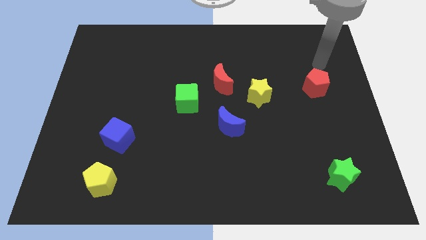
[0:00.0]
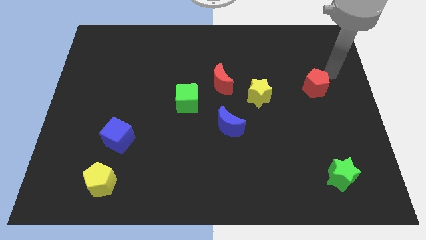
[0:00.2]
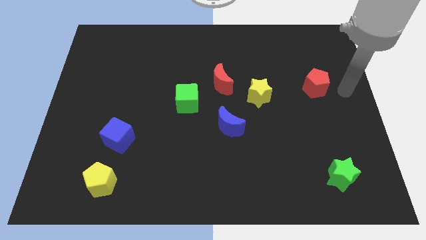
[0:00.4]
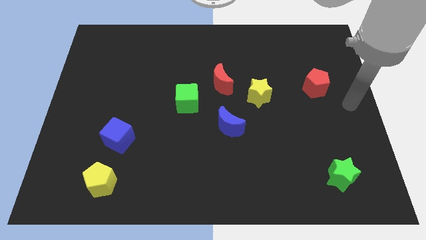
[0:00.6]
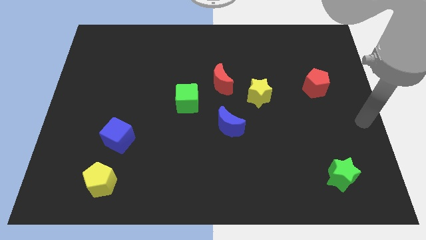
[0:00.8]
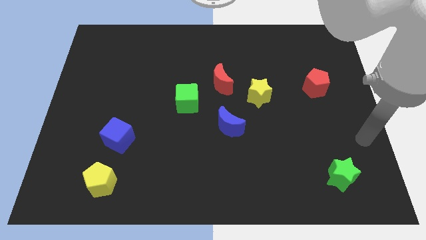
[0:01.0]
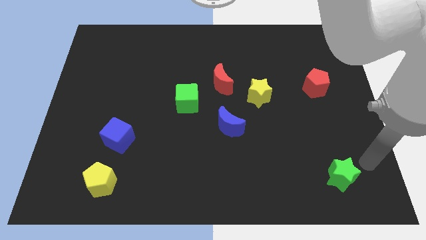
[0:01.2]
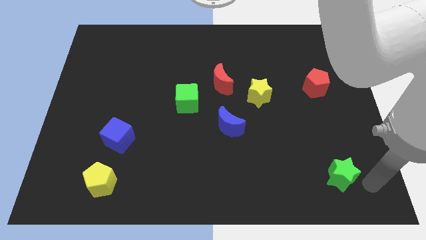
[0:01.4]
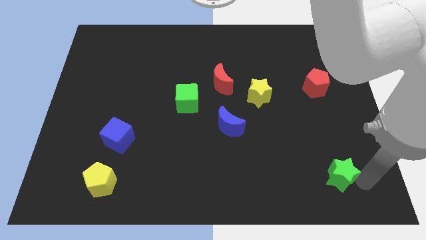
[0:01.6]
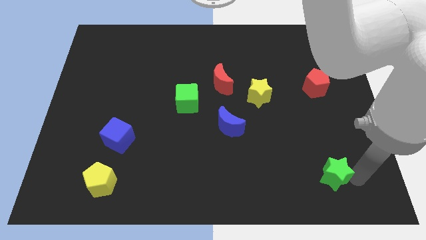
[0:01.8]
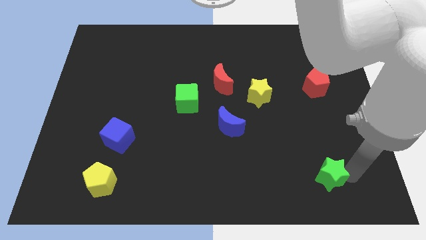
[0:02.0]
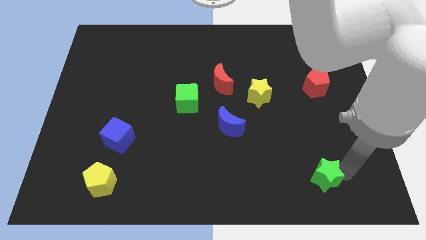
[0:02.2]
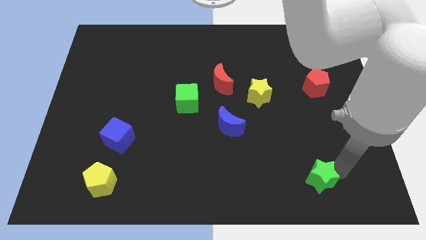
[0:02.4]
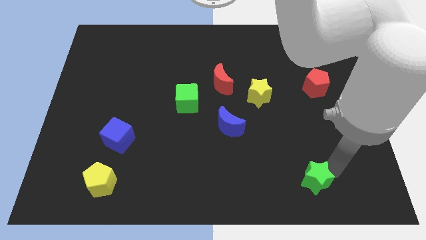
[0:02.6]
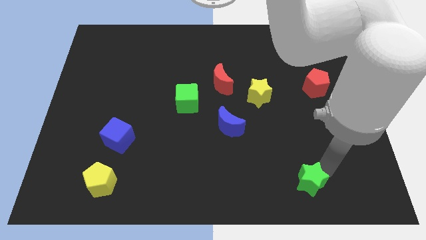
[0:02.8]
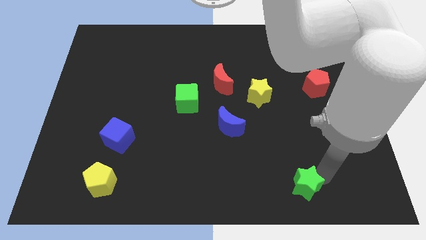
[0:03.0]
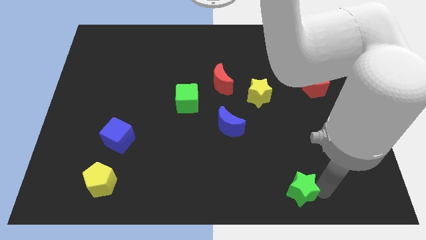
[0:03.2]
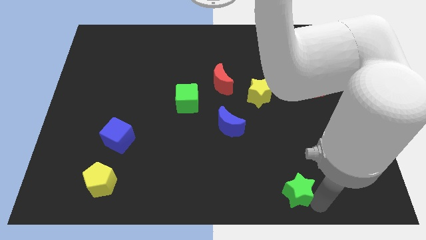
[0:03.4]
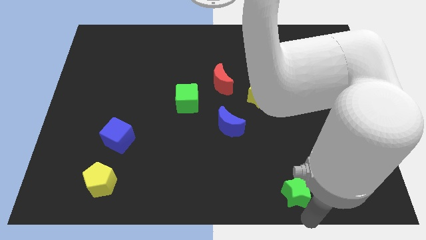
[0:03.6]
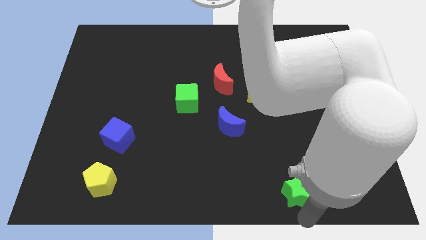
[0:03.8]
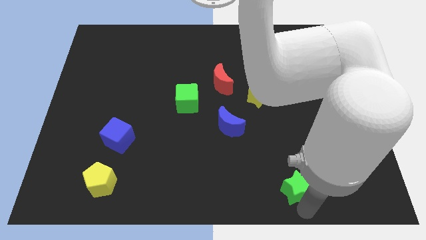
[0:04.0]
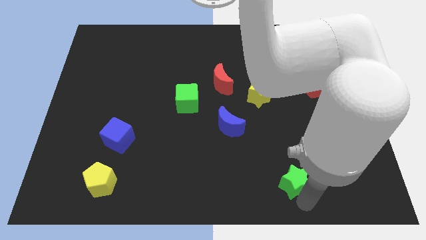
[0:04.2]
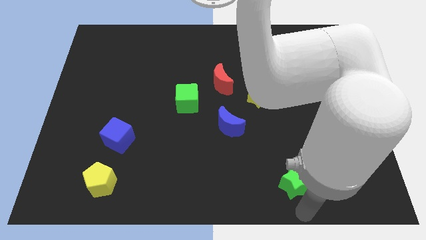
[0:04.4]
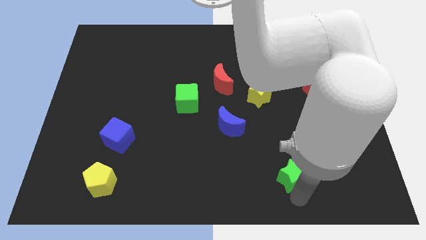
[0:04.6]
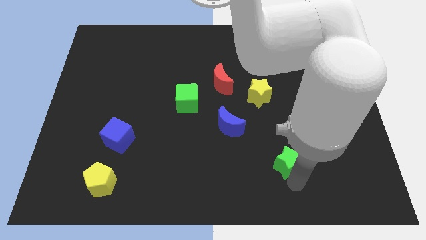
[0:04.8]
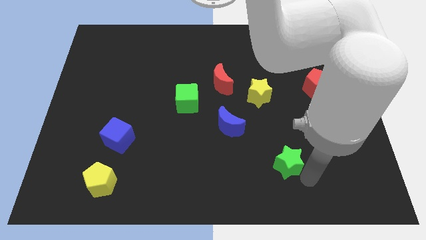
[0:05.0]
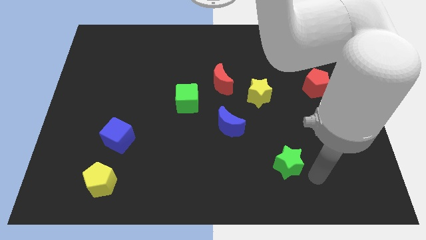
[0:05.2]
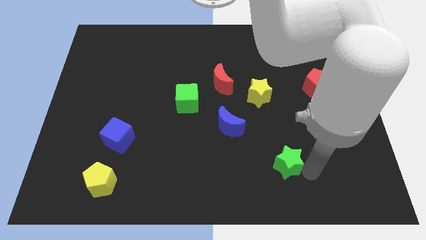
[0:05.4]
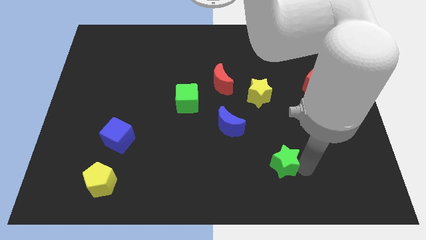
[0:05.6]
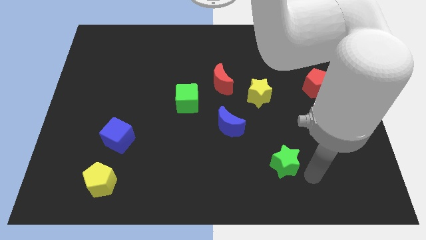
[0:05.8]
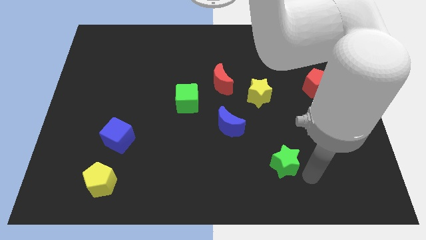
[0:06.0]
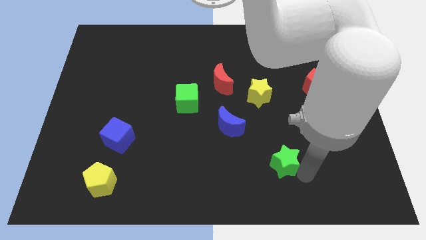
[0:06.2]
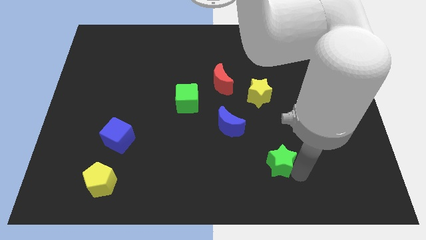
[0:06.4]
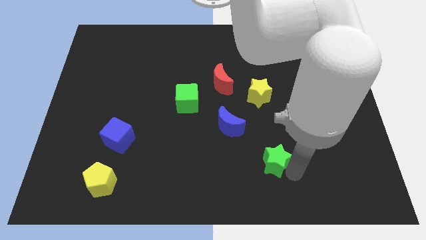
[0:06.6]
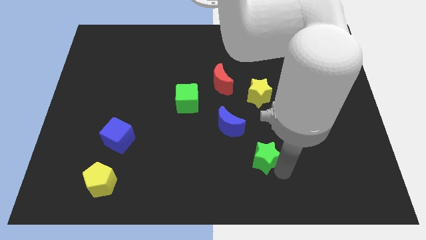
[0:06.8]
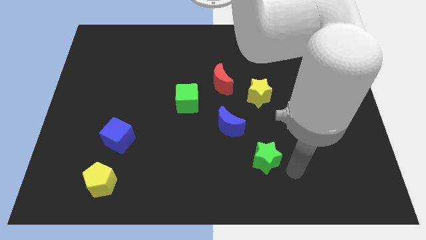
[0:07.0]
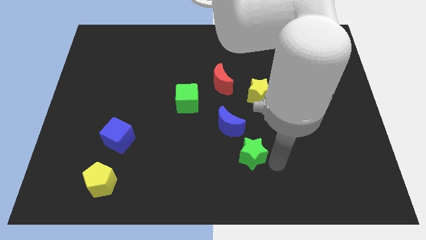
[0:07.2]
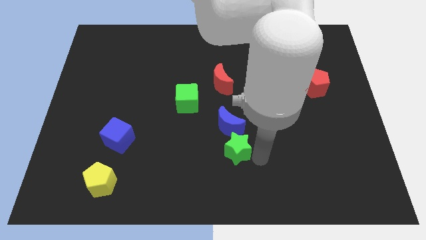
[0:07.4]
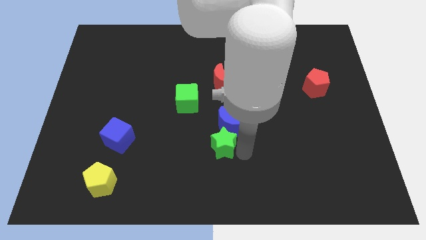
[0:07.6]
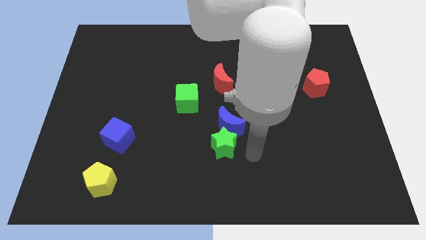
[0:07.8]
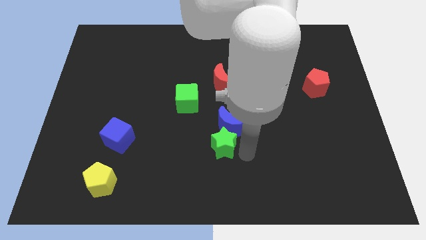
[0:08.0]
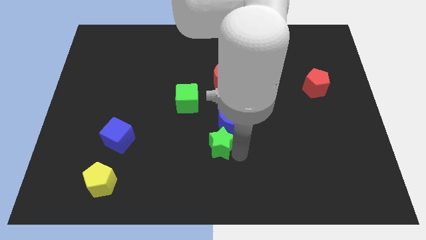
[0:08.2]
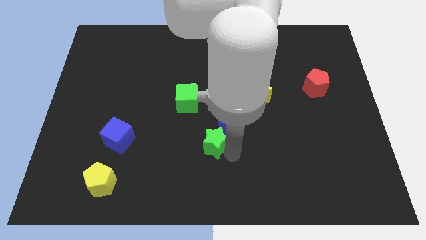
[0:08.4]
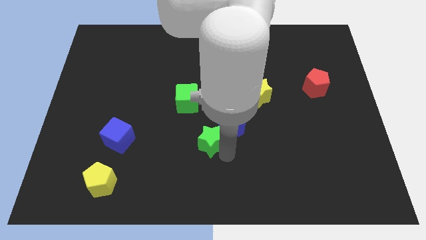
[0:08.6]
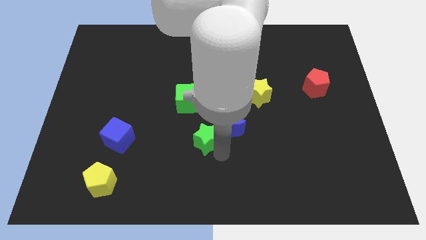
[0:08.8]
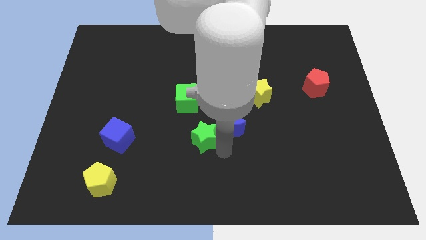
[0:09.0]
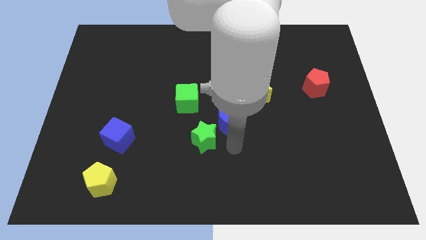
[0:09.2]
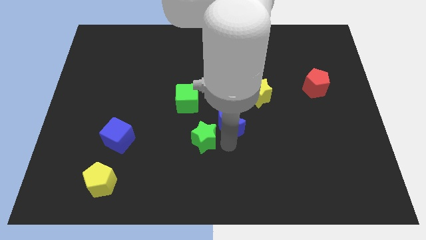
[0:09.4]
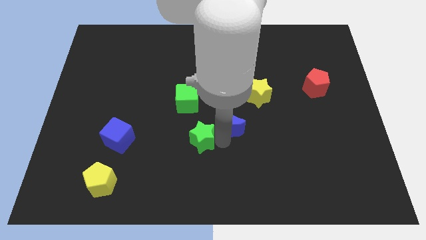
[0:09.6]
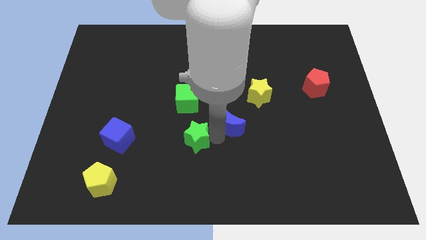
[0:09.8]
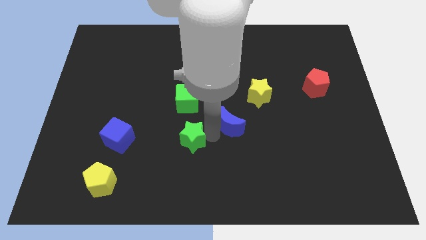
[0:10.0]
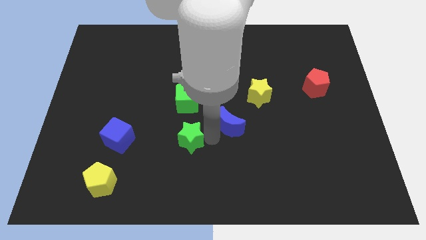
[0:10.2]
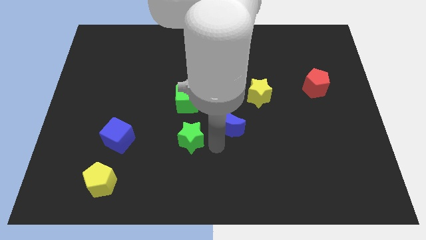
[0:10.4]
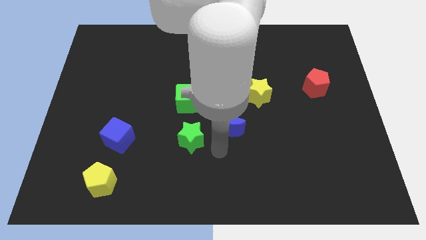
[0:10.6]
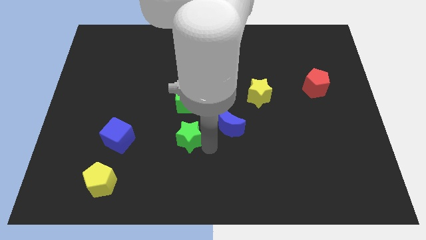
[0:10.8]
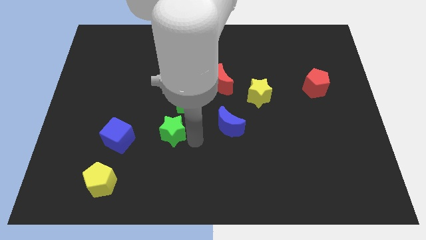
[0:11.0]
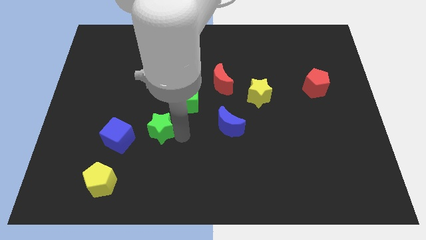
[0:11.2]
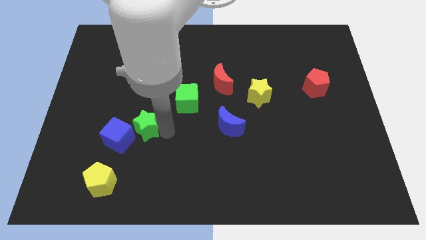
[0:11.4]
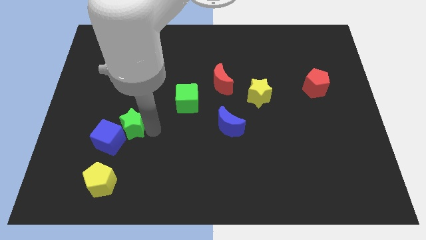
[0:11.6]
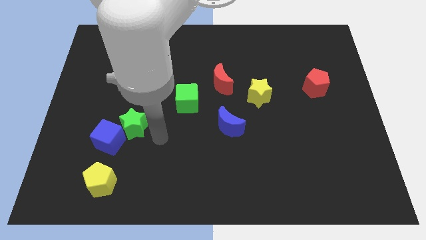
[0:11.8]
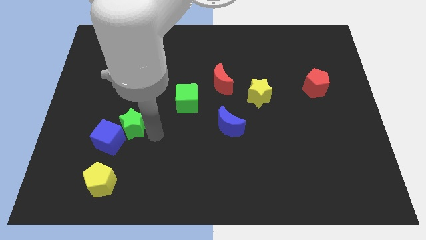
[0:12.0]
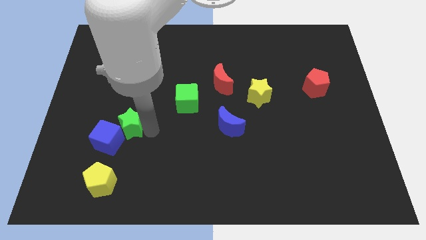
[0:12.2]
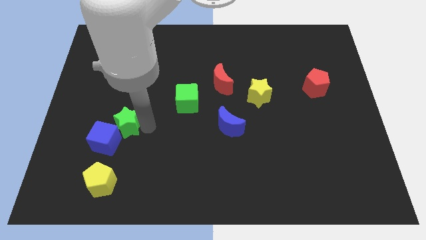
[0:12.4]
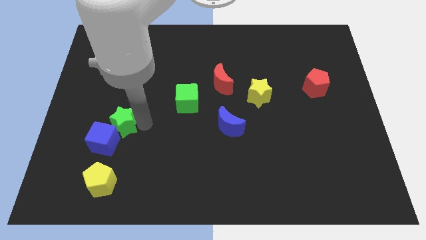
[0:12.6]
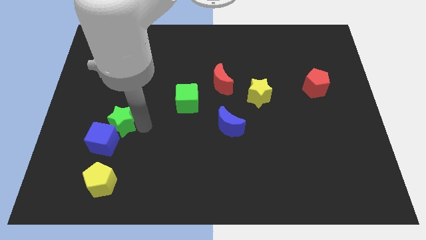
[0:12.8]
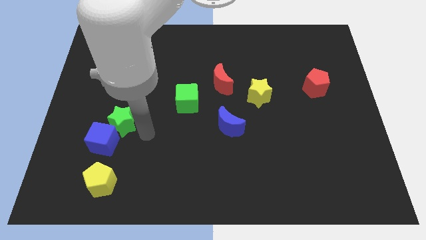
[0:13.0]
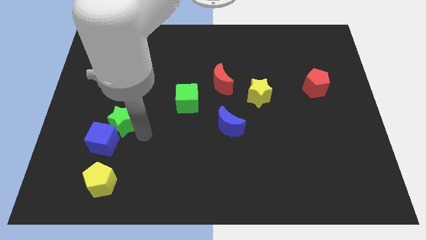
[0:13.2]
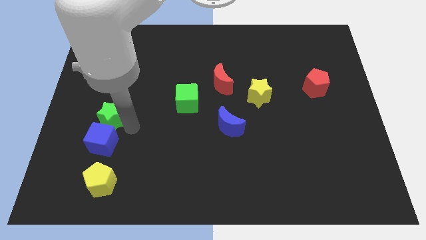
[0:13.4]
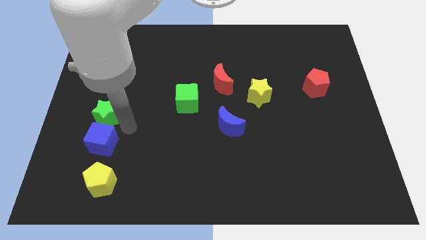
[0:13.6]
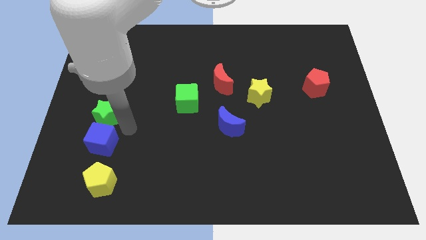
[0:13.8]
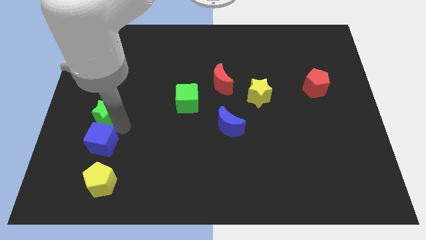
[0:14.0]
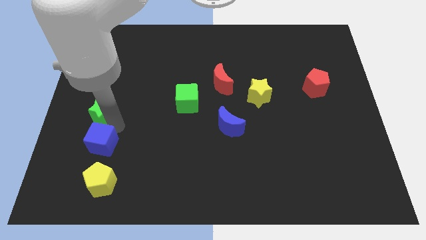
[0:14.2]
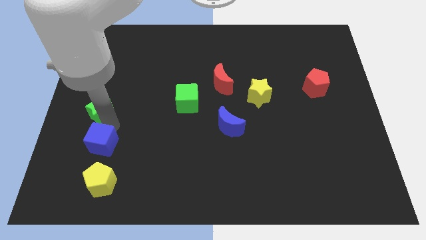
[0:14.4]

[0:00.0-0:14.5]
slide the green star to the left side

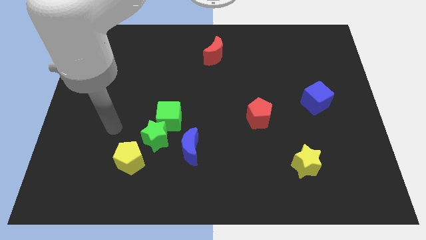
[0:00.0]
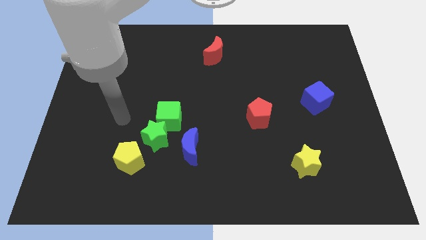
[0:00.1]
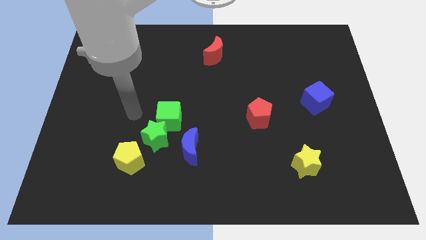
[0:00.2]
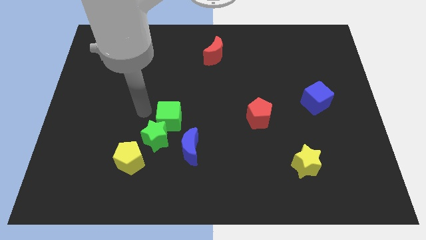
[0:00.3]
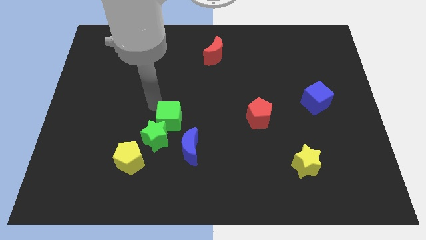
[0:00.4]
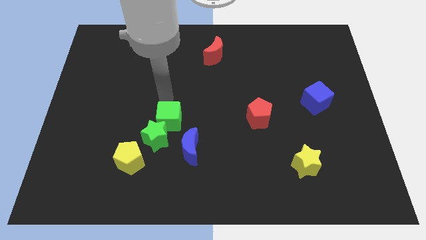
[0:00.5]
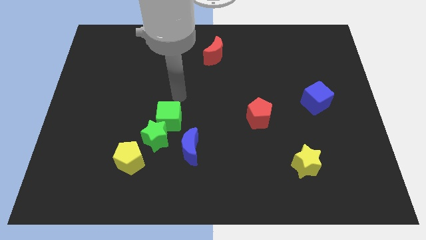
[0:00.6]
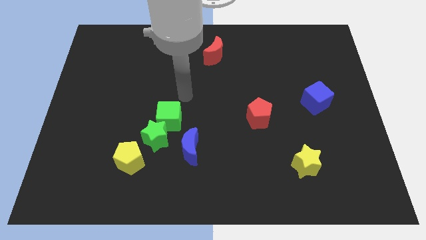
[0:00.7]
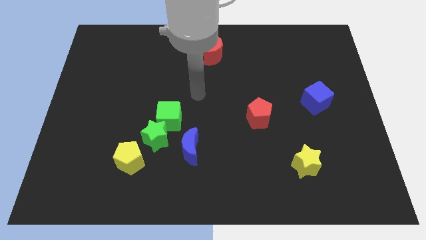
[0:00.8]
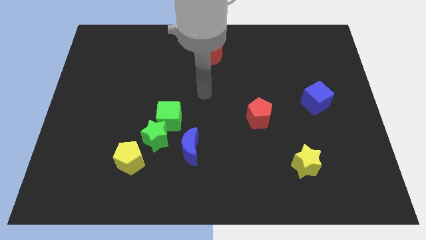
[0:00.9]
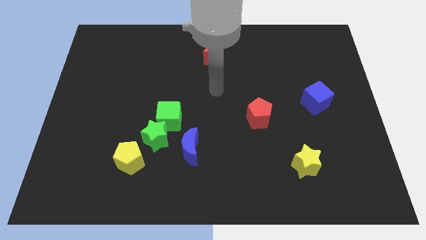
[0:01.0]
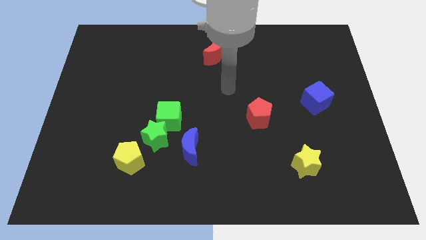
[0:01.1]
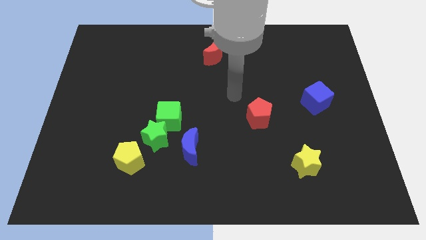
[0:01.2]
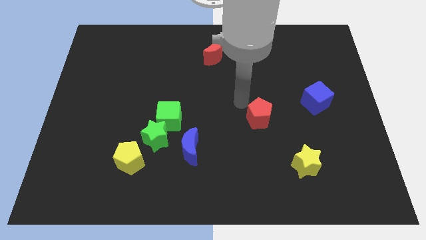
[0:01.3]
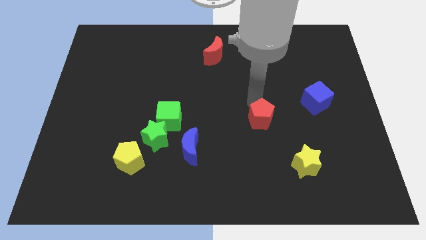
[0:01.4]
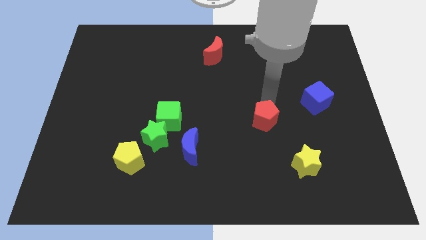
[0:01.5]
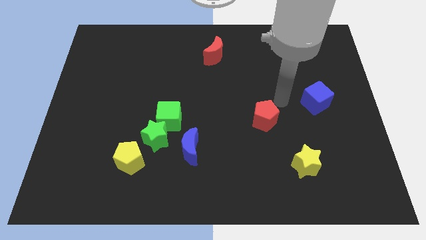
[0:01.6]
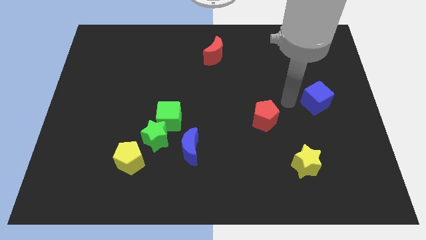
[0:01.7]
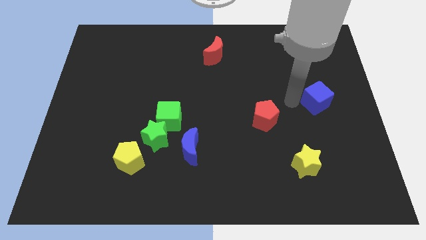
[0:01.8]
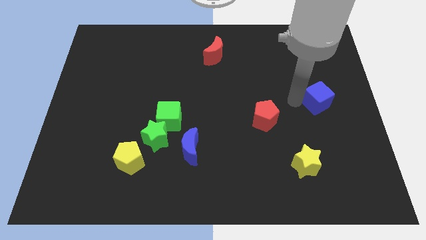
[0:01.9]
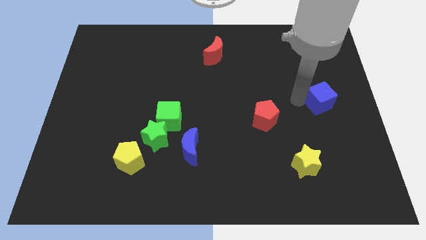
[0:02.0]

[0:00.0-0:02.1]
slide the blue cube to the right side of the board
